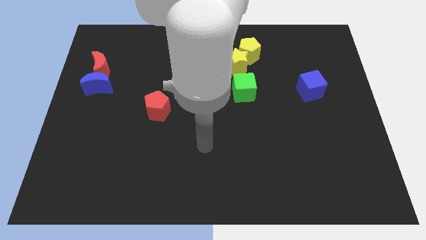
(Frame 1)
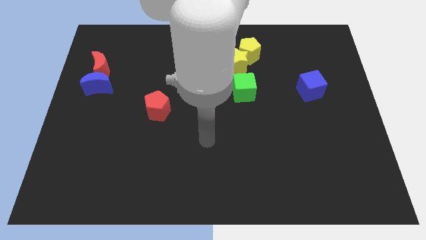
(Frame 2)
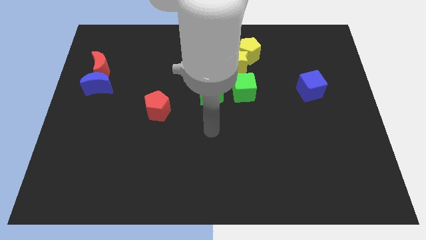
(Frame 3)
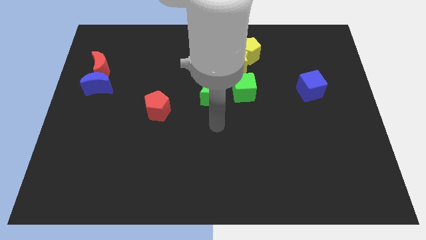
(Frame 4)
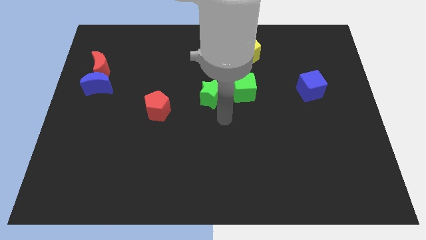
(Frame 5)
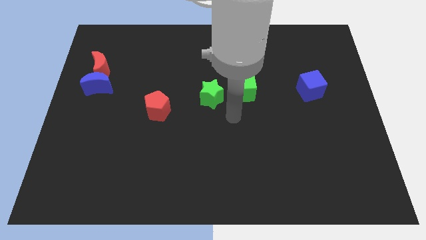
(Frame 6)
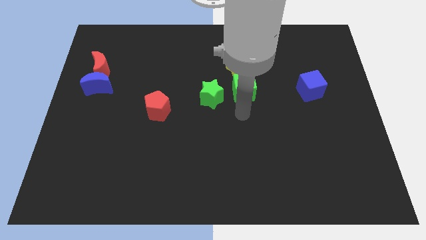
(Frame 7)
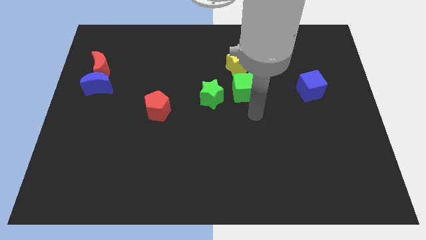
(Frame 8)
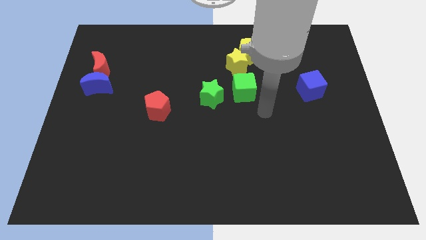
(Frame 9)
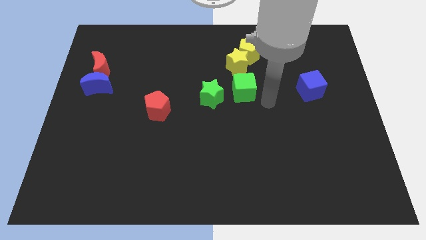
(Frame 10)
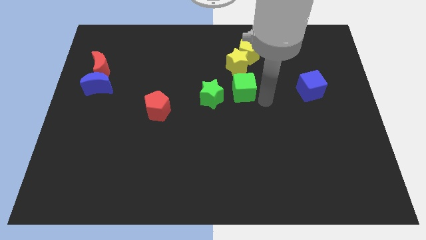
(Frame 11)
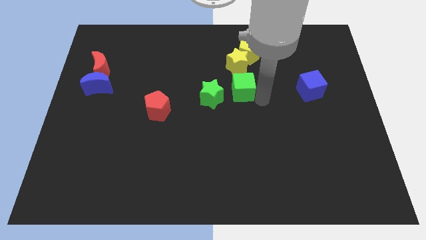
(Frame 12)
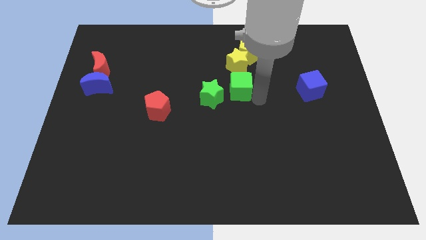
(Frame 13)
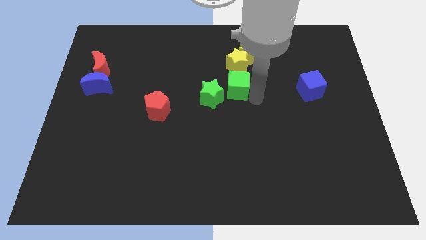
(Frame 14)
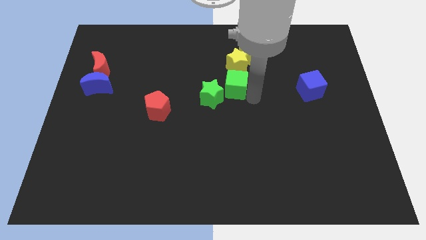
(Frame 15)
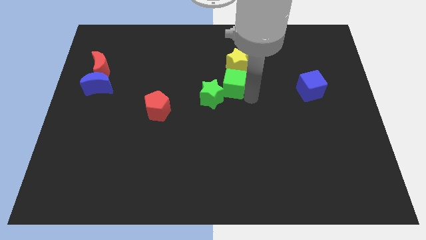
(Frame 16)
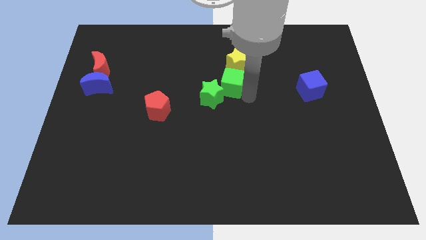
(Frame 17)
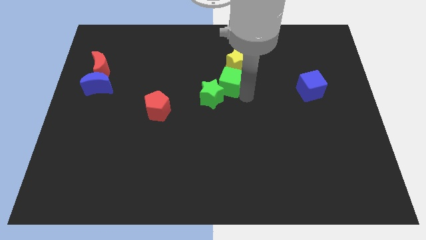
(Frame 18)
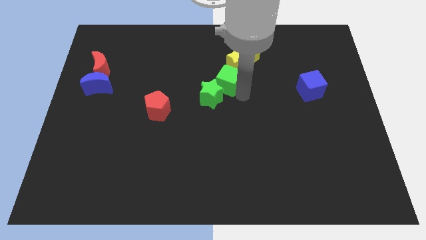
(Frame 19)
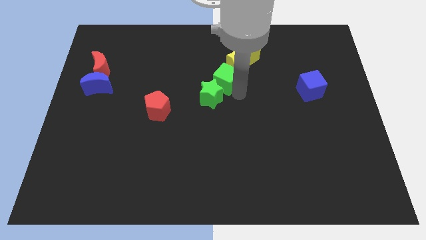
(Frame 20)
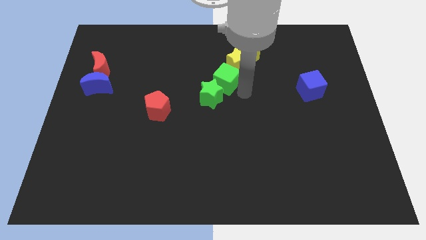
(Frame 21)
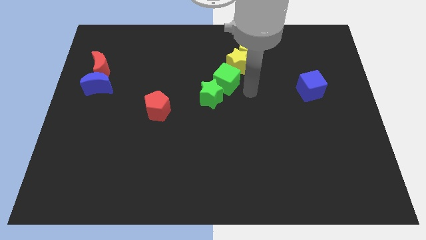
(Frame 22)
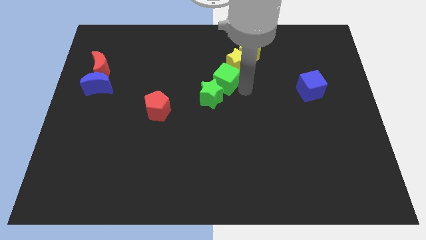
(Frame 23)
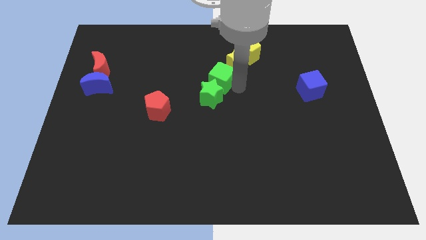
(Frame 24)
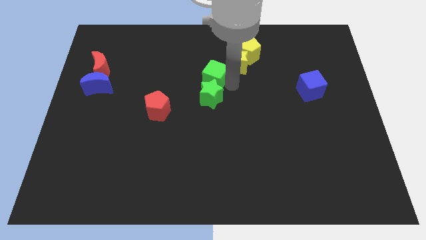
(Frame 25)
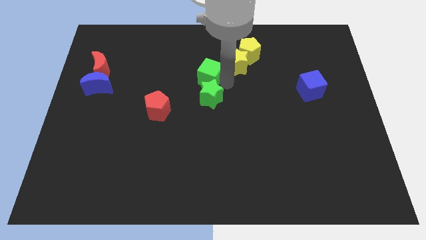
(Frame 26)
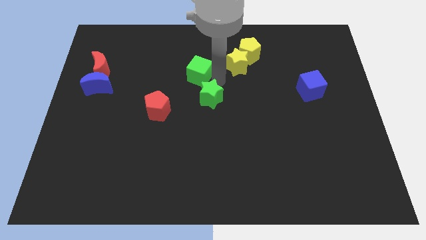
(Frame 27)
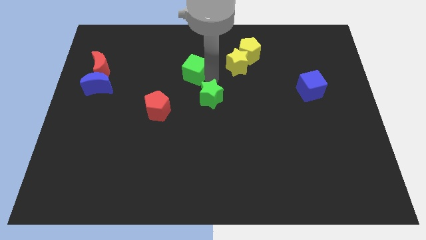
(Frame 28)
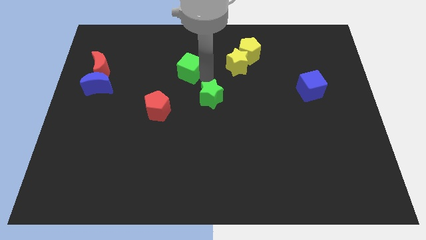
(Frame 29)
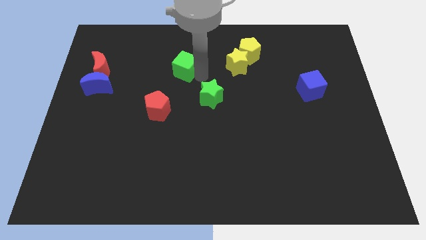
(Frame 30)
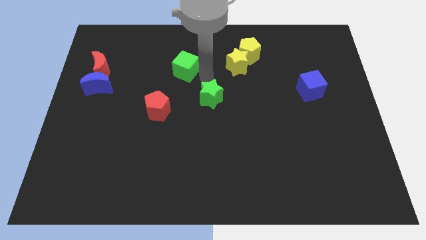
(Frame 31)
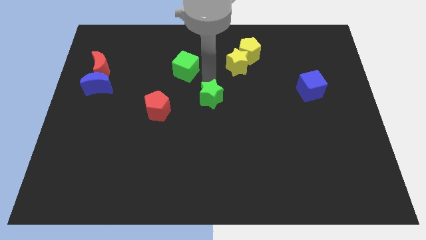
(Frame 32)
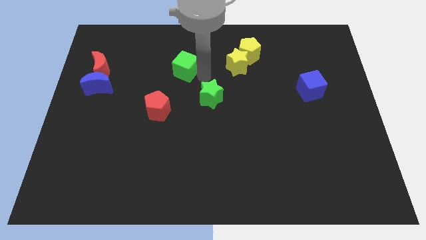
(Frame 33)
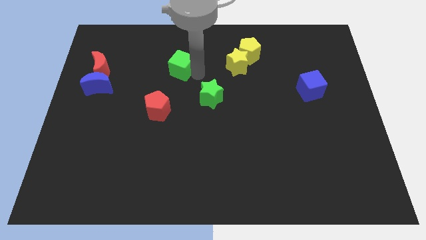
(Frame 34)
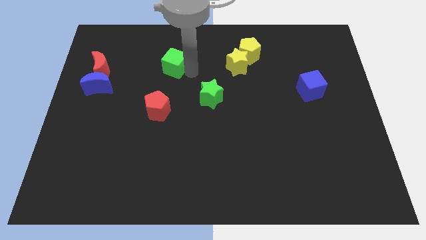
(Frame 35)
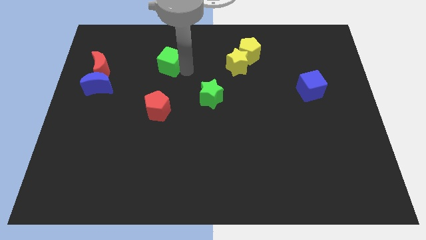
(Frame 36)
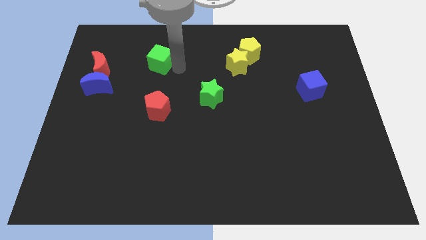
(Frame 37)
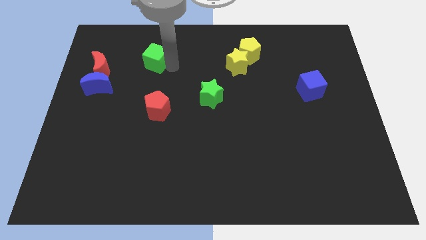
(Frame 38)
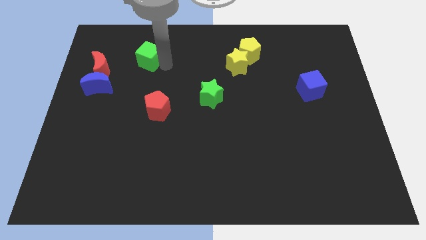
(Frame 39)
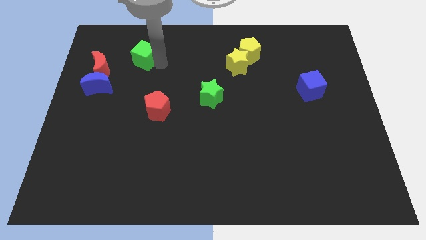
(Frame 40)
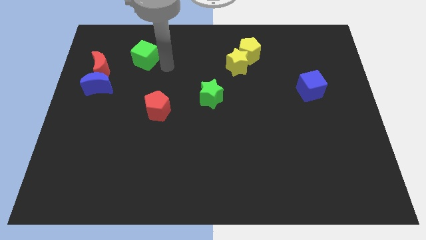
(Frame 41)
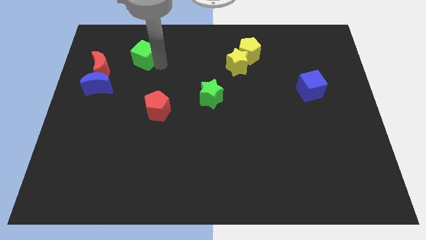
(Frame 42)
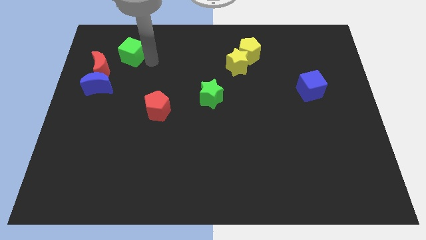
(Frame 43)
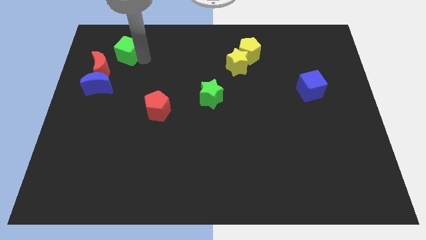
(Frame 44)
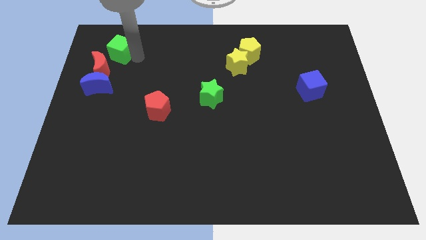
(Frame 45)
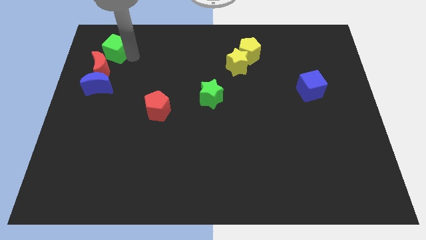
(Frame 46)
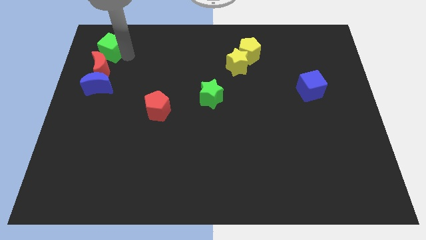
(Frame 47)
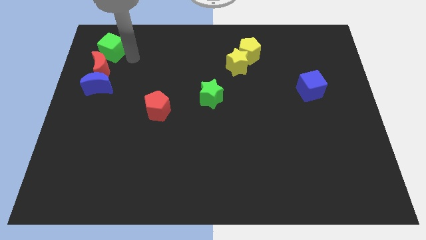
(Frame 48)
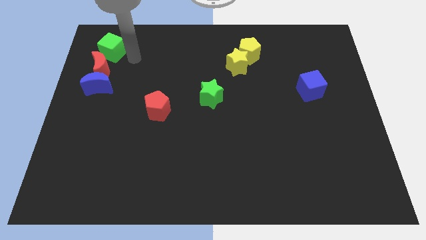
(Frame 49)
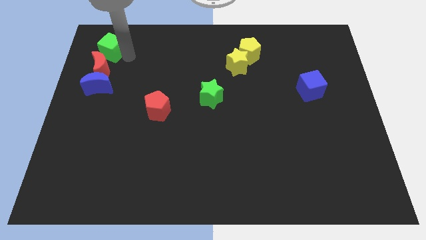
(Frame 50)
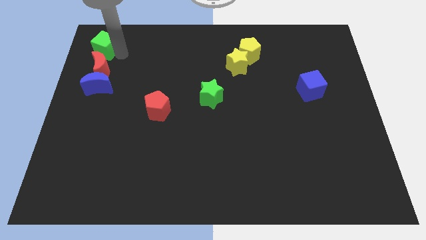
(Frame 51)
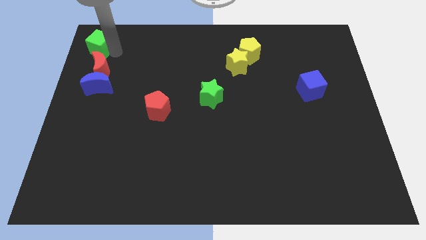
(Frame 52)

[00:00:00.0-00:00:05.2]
slide the green cube to the upper left corner

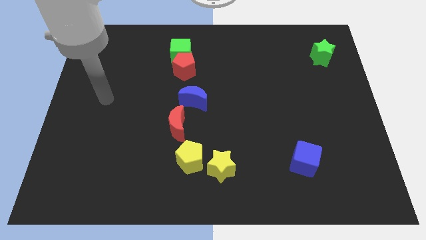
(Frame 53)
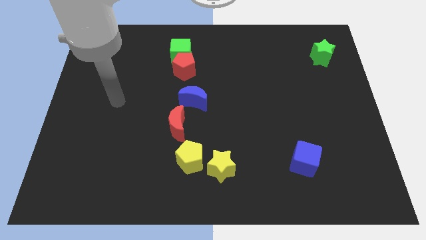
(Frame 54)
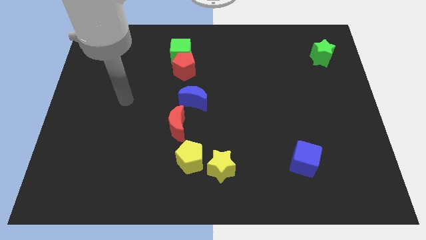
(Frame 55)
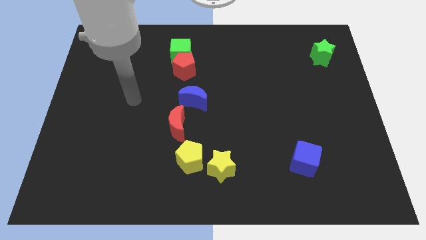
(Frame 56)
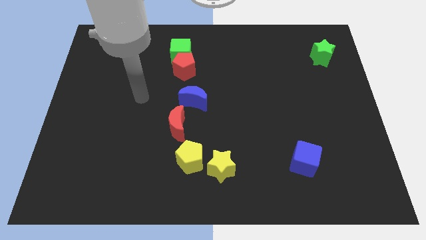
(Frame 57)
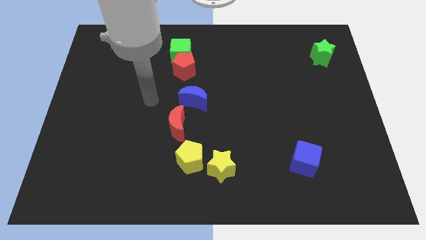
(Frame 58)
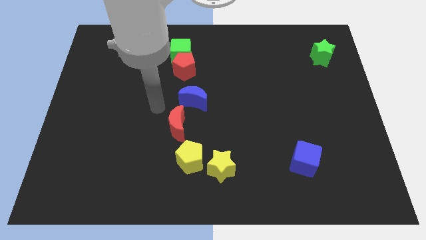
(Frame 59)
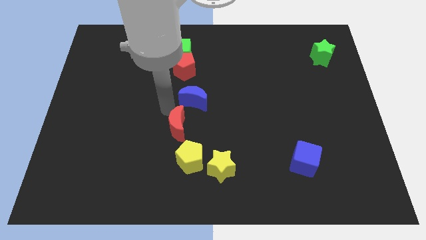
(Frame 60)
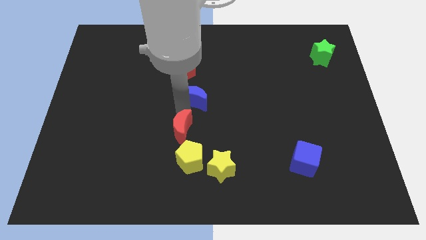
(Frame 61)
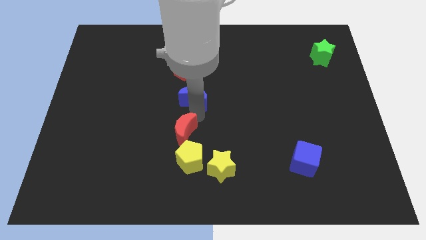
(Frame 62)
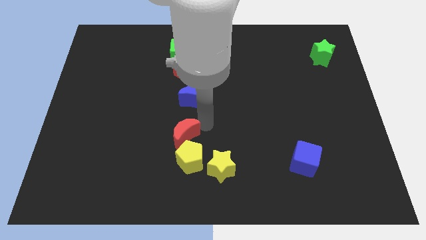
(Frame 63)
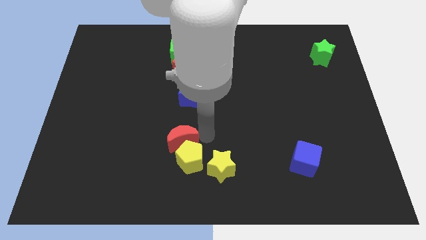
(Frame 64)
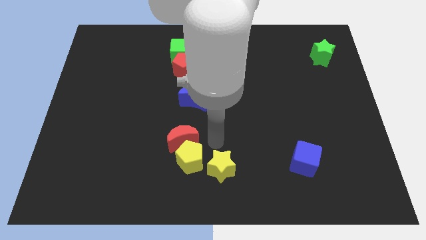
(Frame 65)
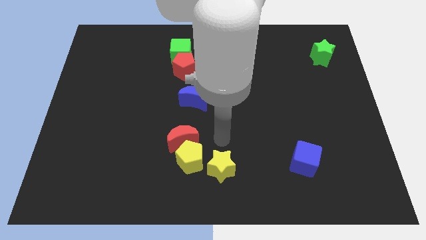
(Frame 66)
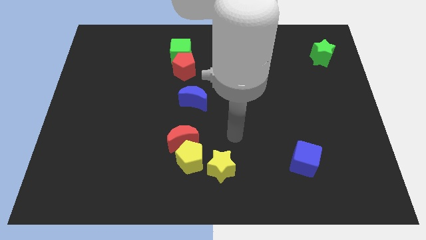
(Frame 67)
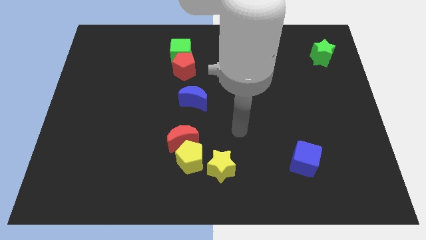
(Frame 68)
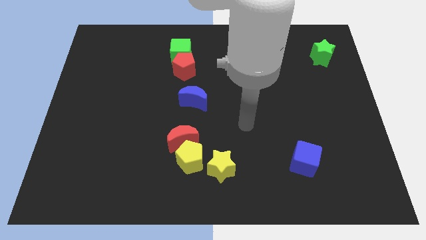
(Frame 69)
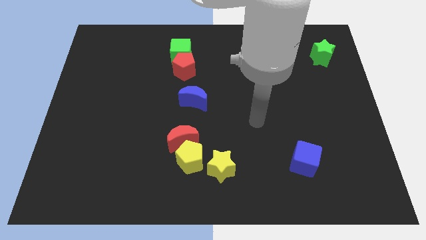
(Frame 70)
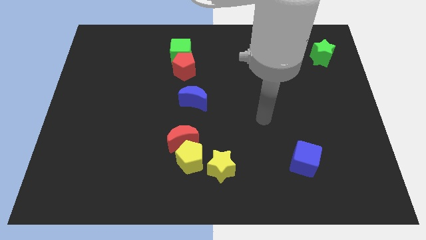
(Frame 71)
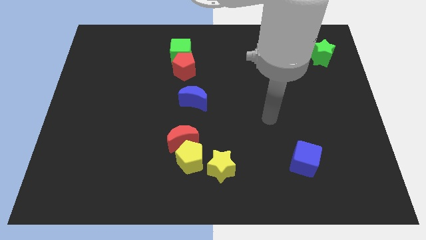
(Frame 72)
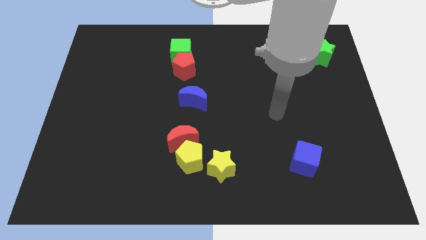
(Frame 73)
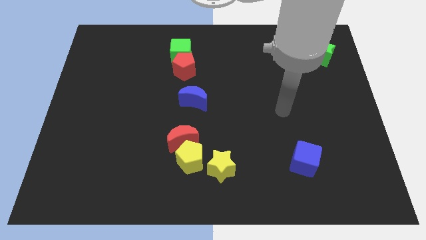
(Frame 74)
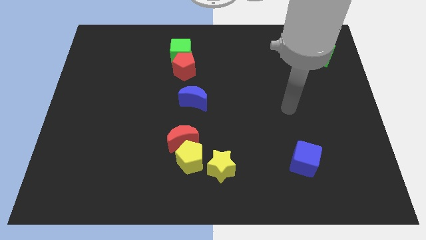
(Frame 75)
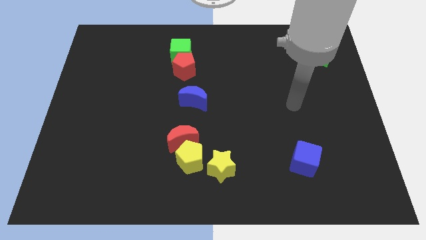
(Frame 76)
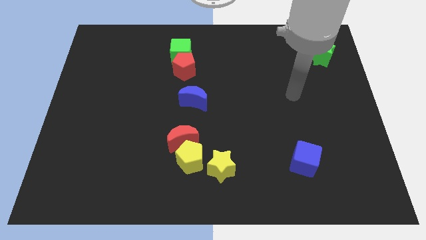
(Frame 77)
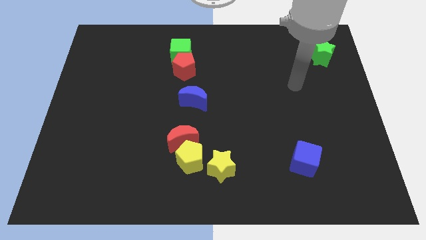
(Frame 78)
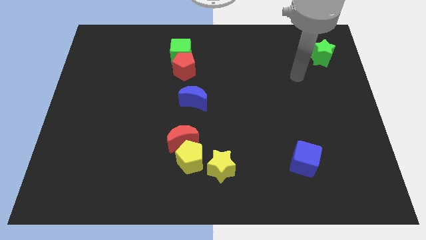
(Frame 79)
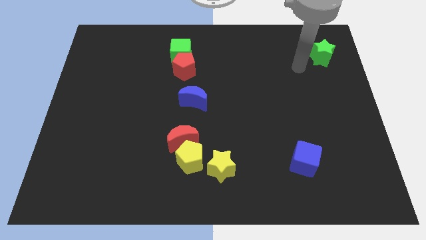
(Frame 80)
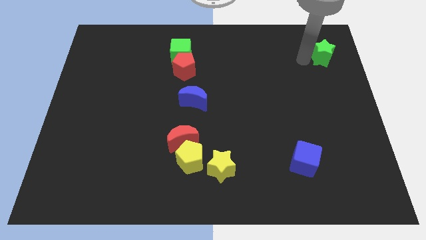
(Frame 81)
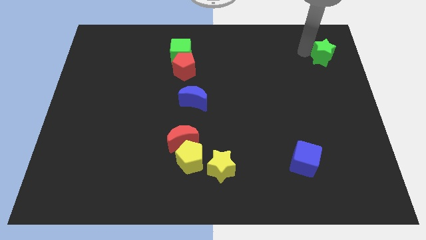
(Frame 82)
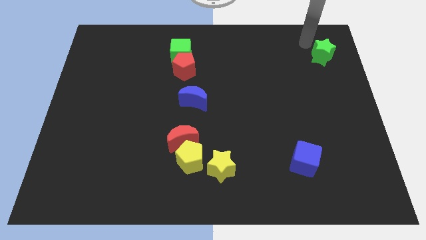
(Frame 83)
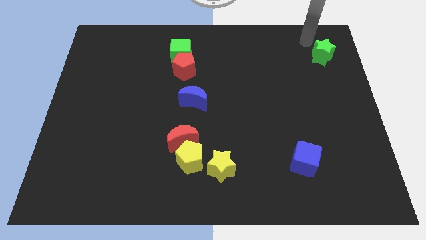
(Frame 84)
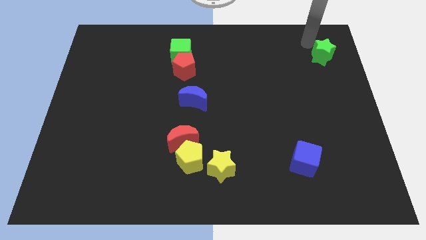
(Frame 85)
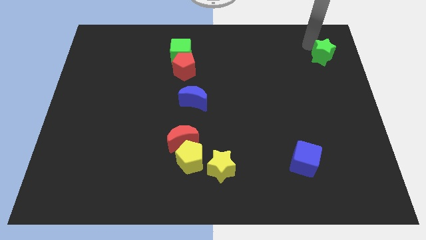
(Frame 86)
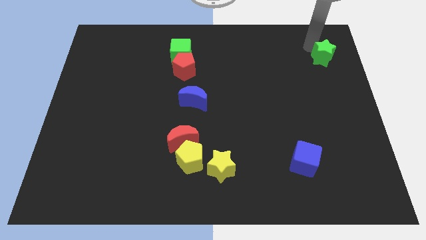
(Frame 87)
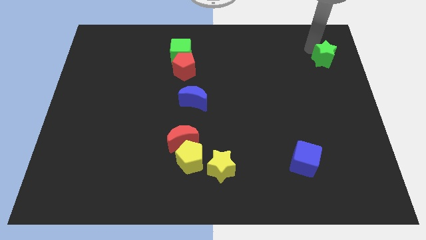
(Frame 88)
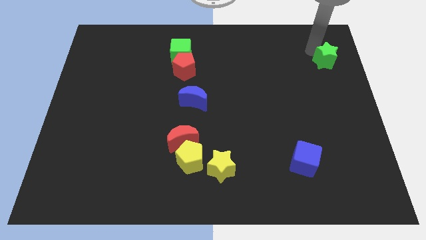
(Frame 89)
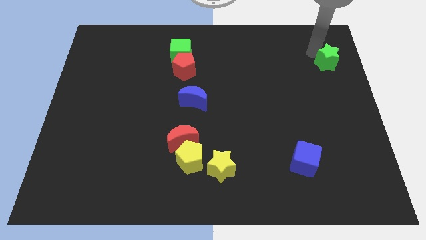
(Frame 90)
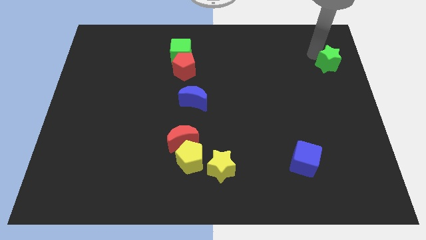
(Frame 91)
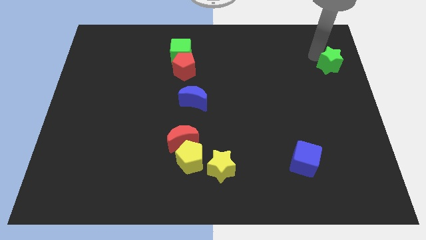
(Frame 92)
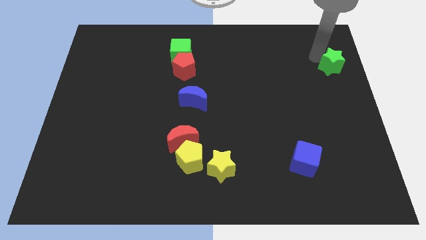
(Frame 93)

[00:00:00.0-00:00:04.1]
slide the green star to the center right
